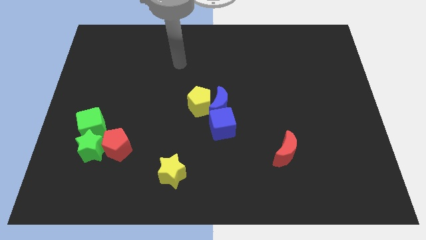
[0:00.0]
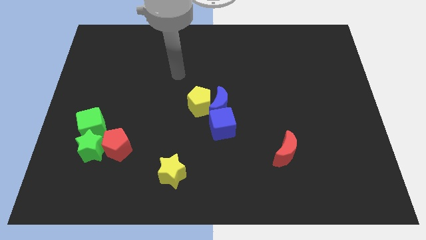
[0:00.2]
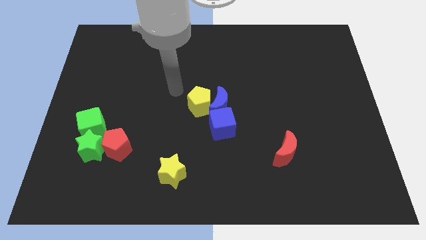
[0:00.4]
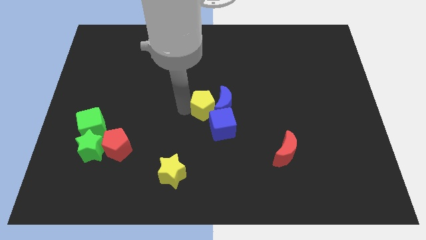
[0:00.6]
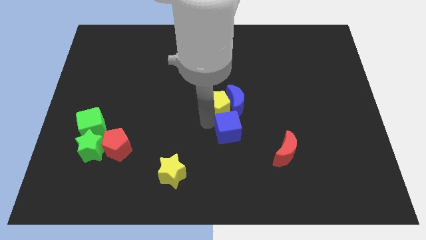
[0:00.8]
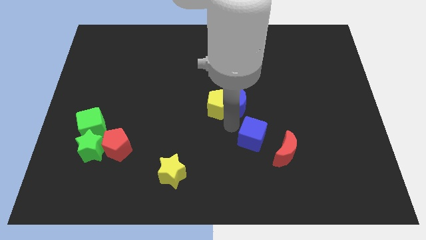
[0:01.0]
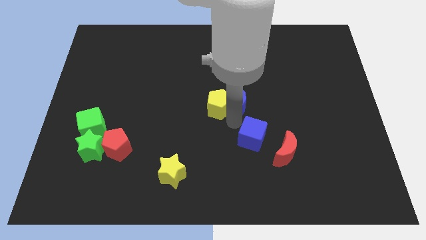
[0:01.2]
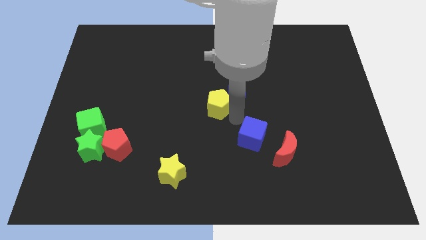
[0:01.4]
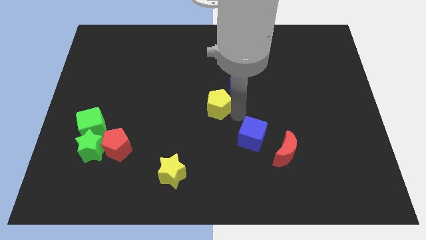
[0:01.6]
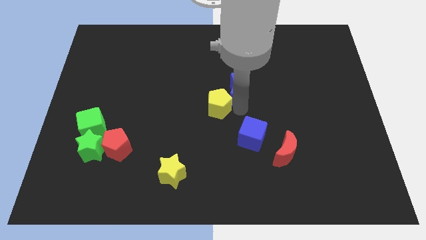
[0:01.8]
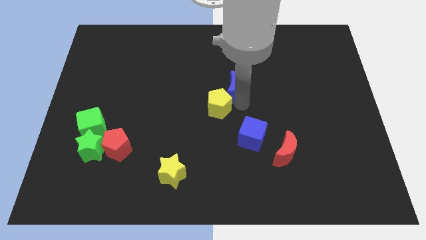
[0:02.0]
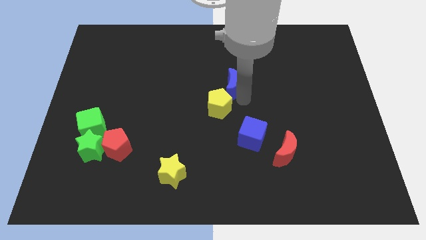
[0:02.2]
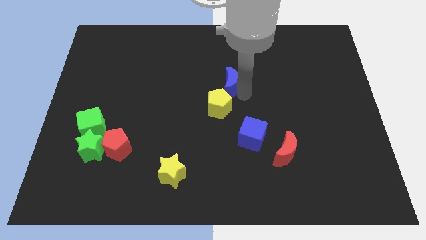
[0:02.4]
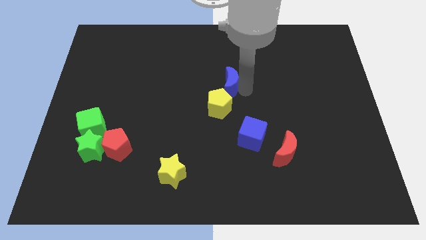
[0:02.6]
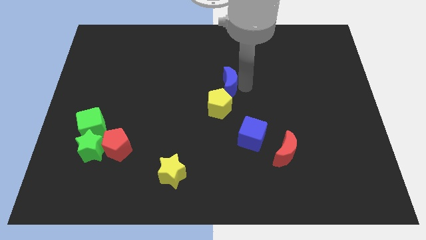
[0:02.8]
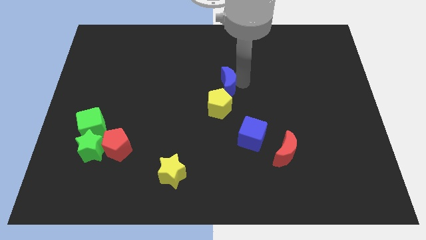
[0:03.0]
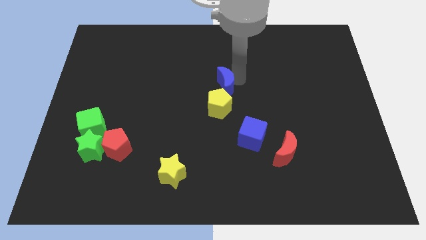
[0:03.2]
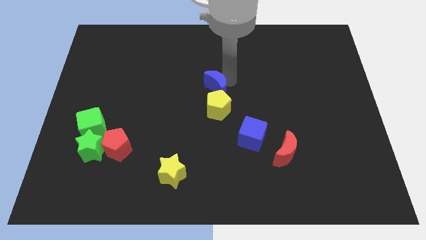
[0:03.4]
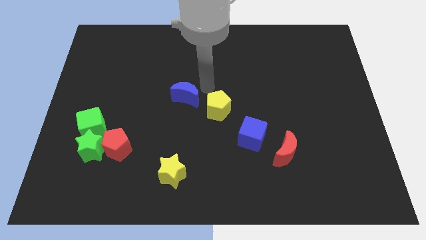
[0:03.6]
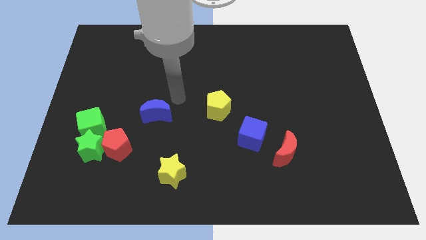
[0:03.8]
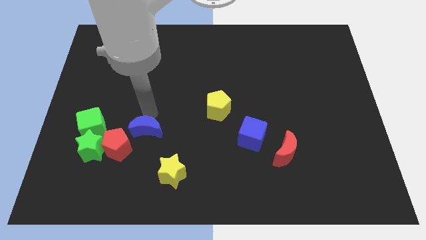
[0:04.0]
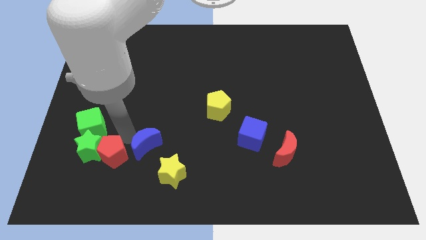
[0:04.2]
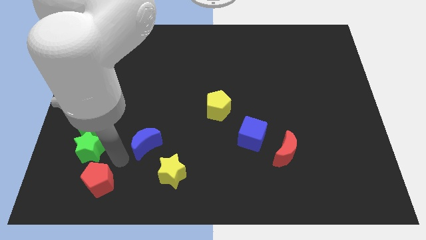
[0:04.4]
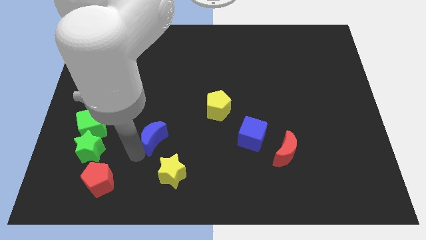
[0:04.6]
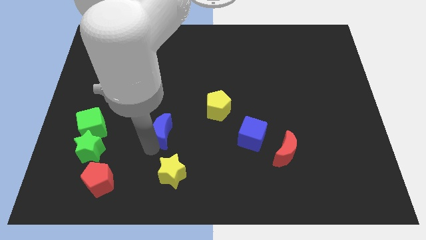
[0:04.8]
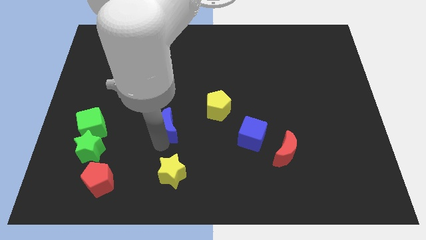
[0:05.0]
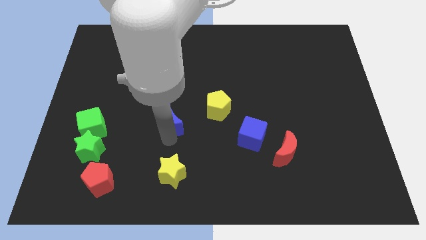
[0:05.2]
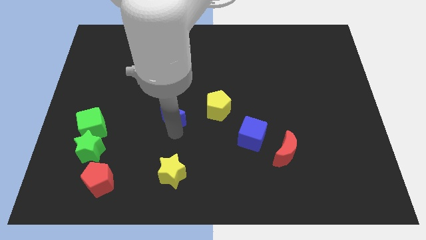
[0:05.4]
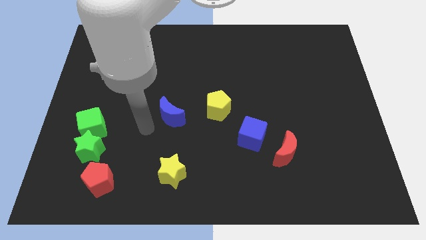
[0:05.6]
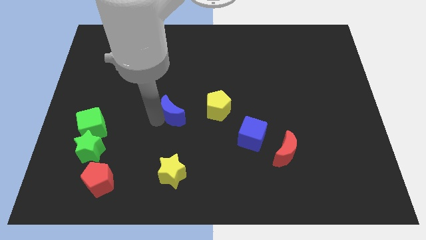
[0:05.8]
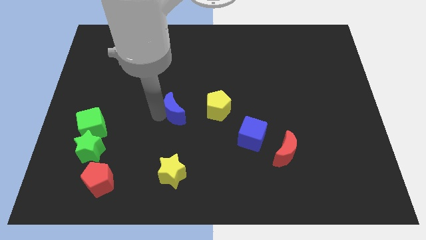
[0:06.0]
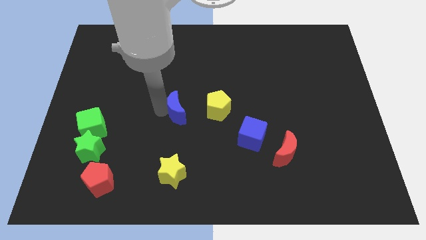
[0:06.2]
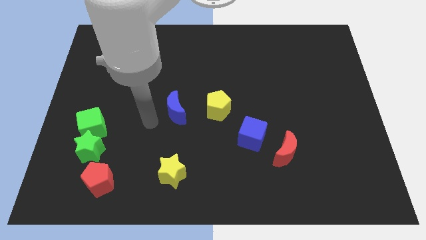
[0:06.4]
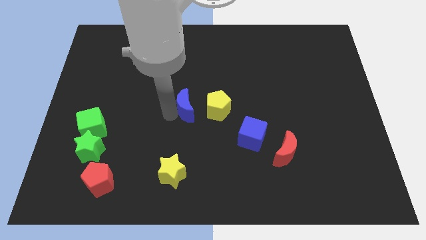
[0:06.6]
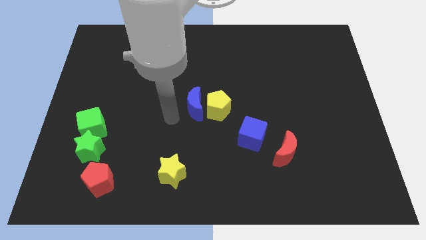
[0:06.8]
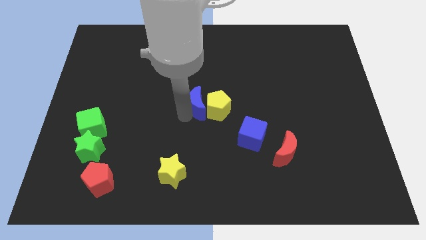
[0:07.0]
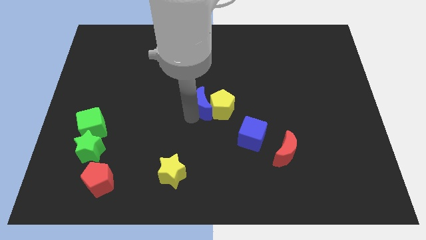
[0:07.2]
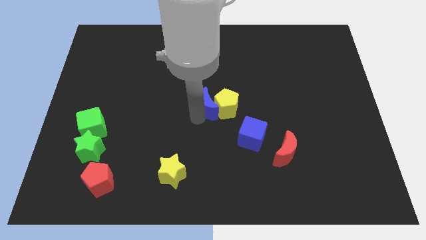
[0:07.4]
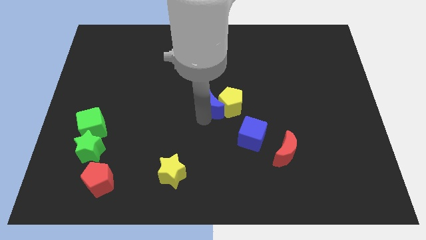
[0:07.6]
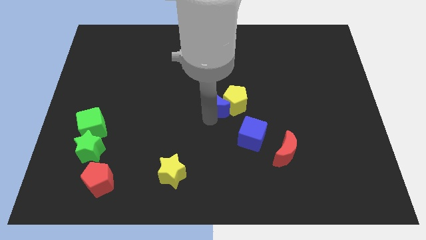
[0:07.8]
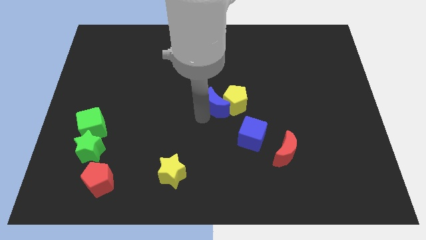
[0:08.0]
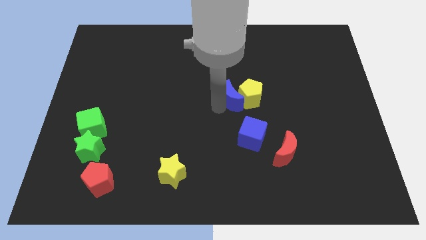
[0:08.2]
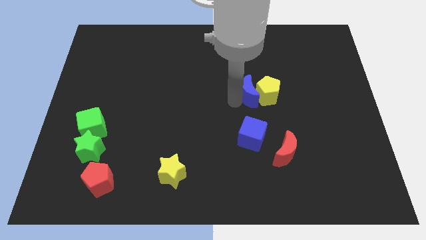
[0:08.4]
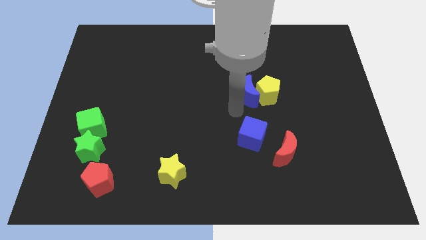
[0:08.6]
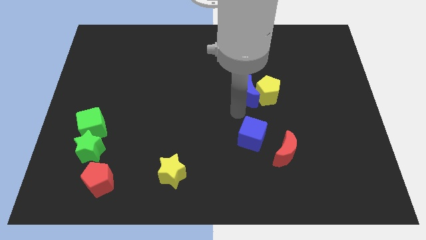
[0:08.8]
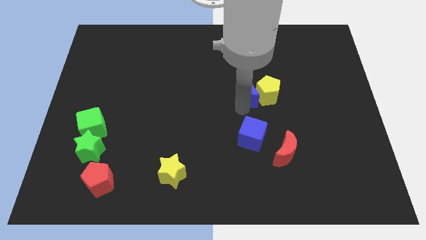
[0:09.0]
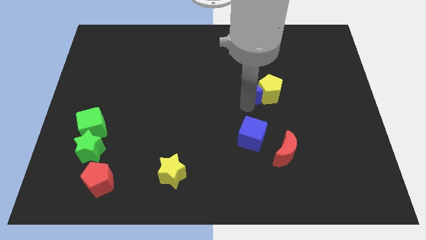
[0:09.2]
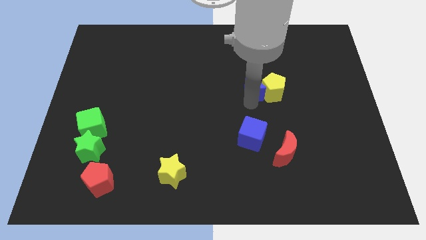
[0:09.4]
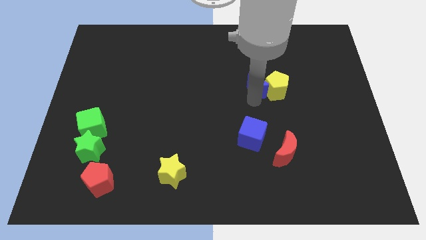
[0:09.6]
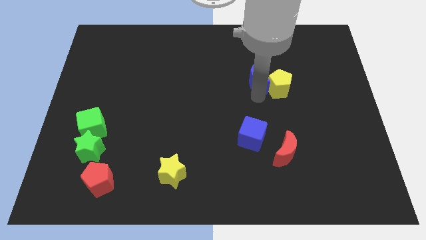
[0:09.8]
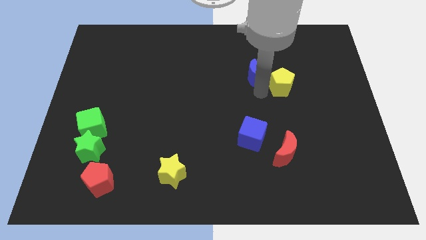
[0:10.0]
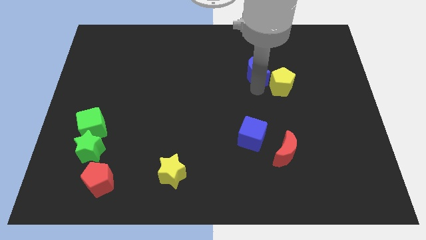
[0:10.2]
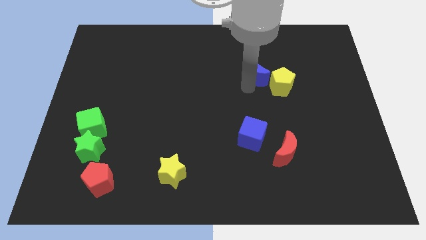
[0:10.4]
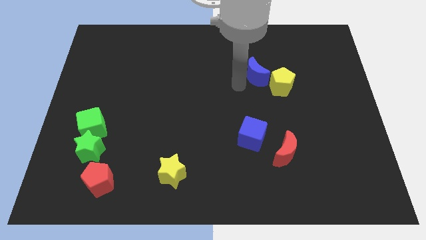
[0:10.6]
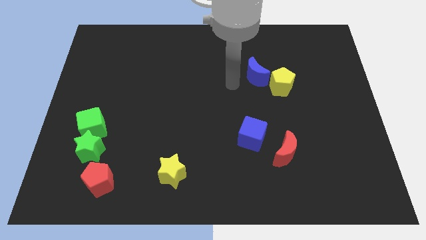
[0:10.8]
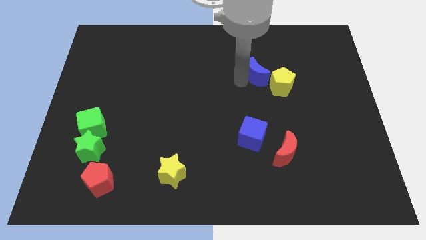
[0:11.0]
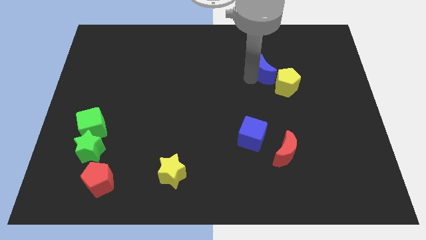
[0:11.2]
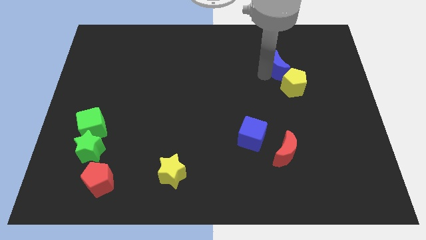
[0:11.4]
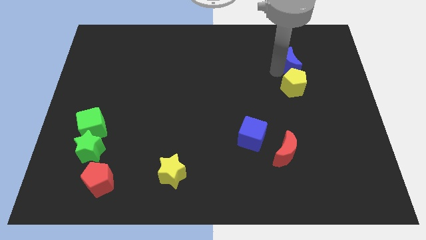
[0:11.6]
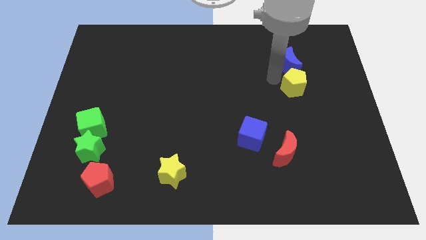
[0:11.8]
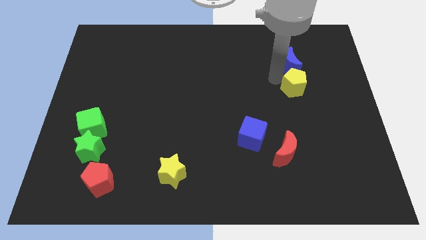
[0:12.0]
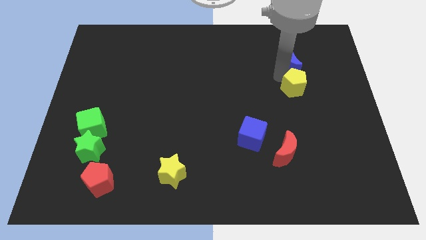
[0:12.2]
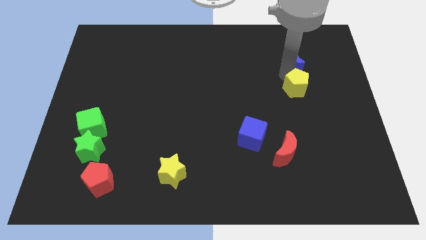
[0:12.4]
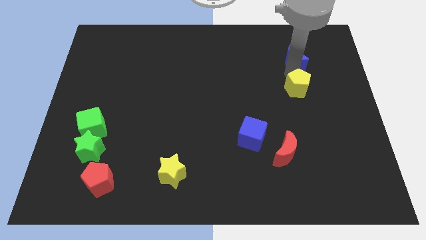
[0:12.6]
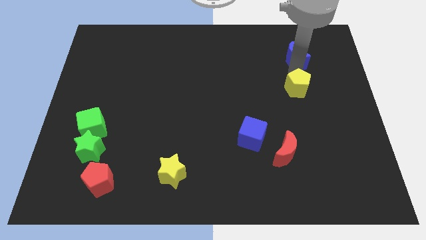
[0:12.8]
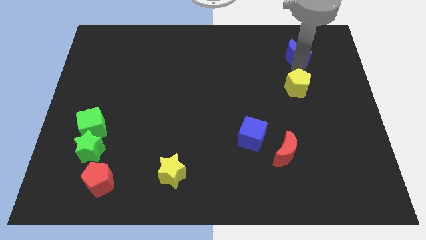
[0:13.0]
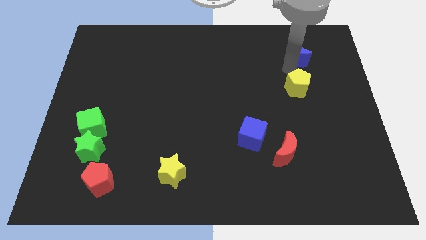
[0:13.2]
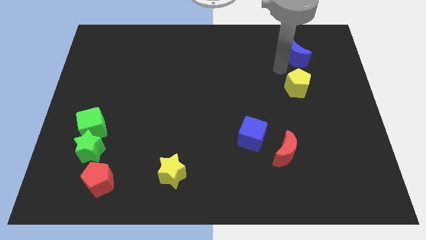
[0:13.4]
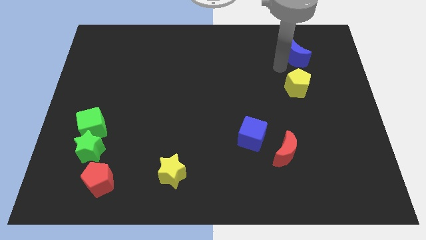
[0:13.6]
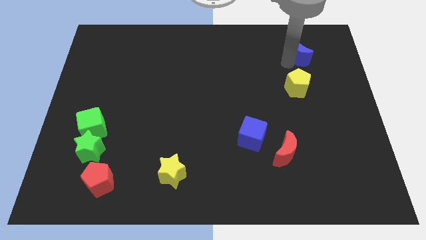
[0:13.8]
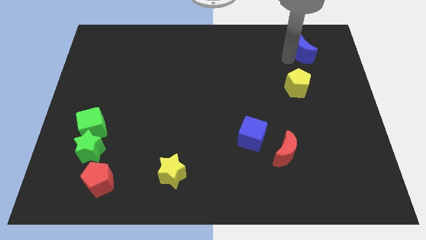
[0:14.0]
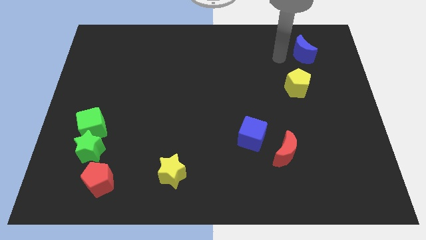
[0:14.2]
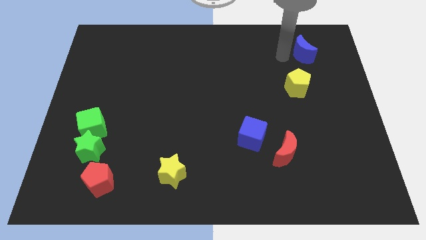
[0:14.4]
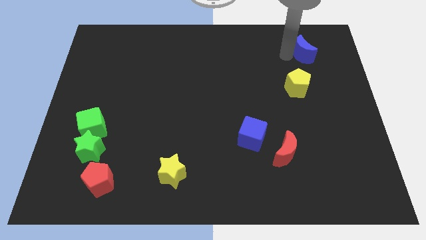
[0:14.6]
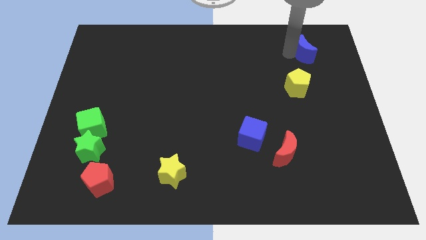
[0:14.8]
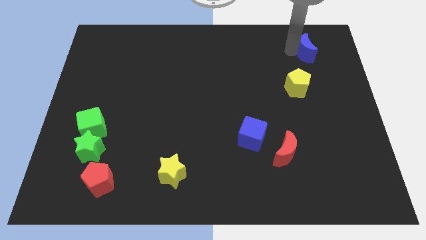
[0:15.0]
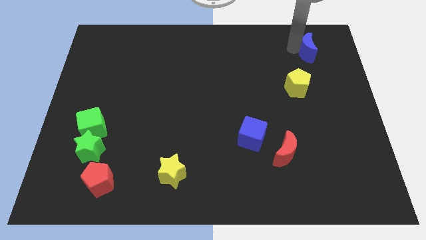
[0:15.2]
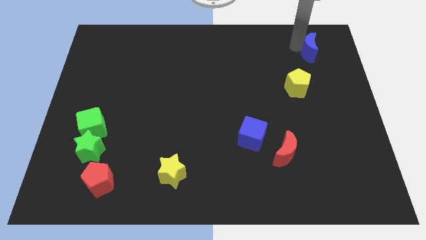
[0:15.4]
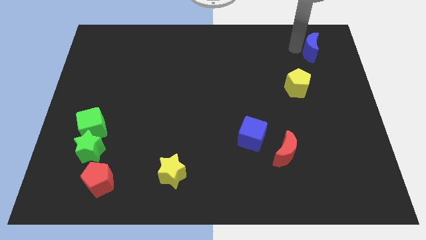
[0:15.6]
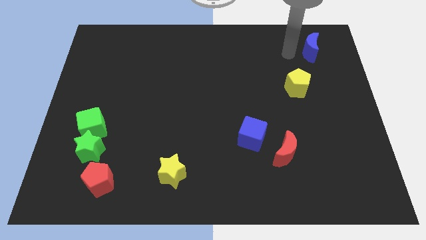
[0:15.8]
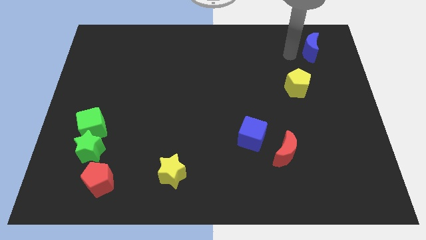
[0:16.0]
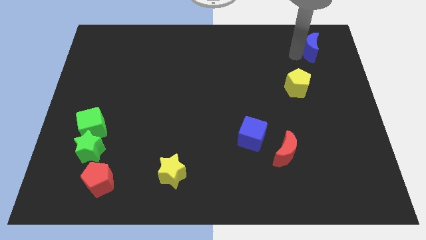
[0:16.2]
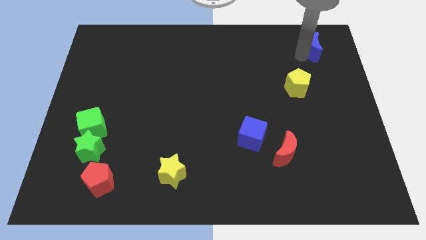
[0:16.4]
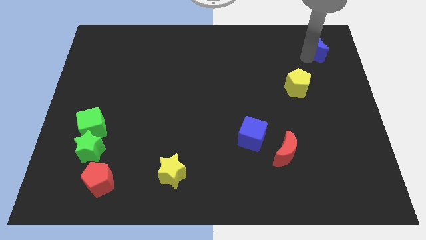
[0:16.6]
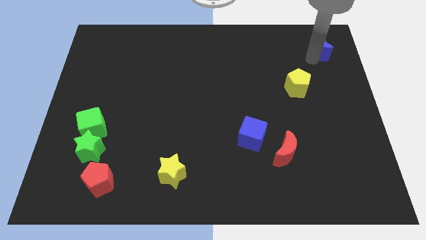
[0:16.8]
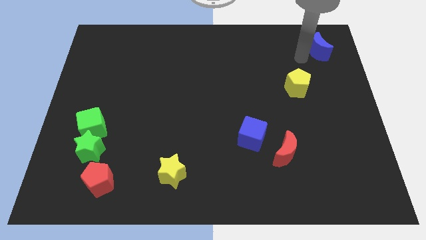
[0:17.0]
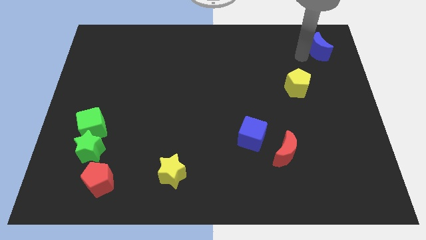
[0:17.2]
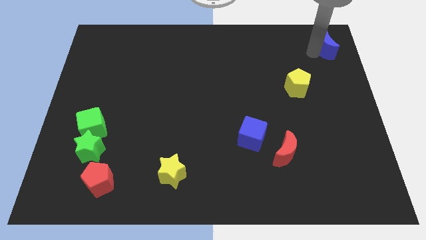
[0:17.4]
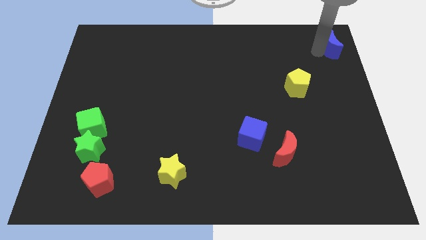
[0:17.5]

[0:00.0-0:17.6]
put the blue moon to the top right
